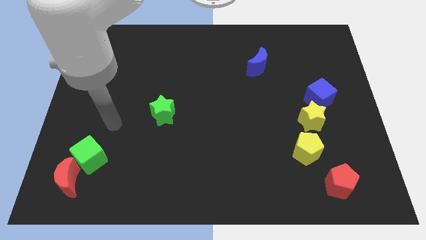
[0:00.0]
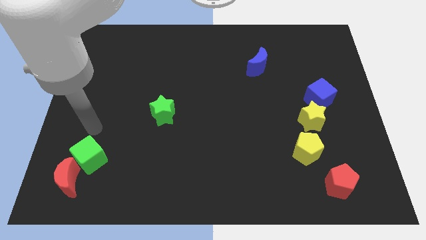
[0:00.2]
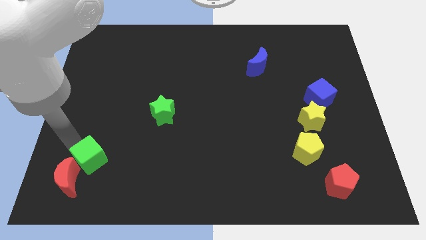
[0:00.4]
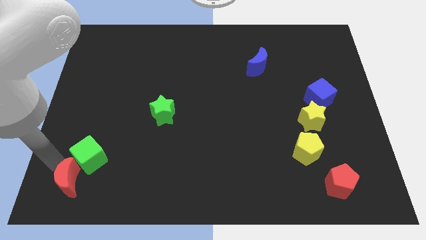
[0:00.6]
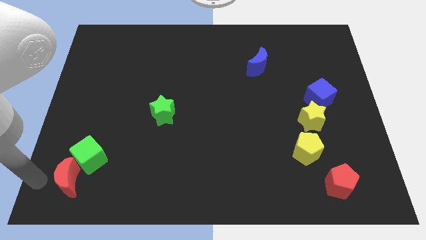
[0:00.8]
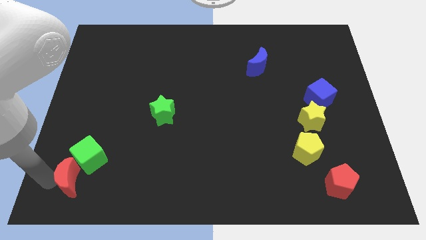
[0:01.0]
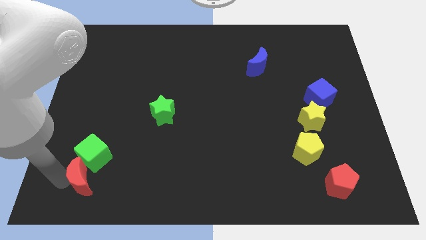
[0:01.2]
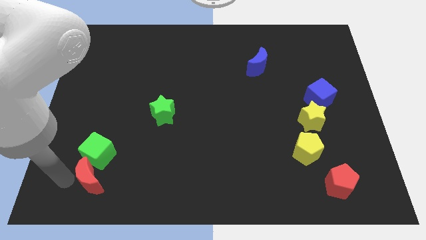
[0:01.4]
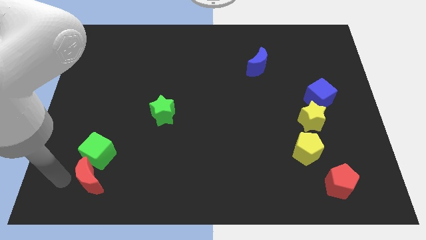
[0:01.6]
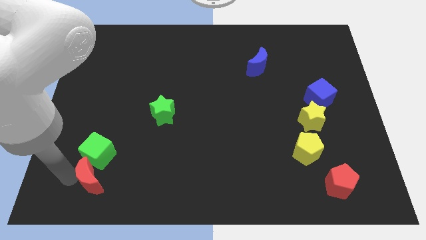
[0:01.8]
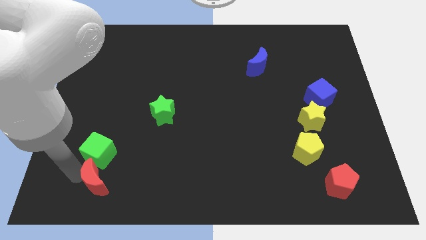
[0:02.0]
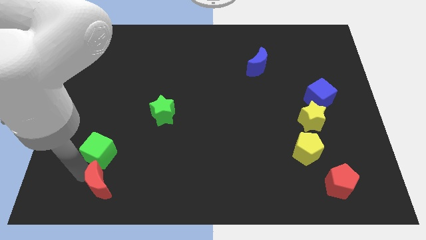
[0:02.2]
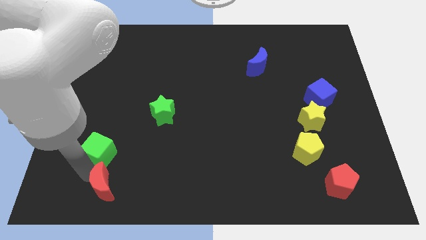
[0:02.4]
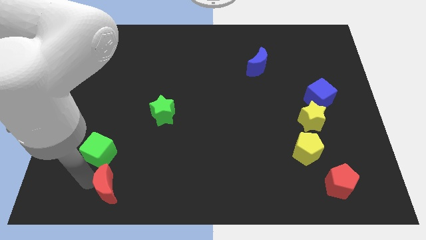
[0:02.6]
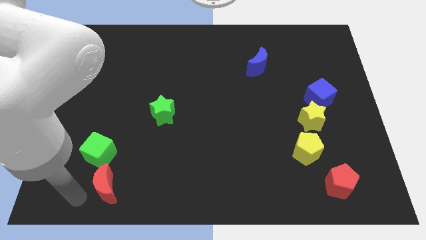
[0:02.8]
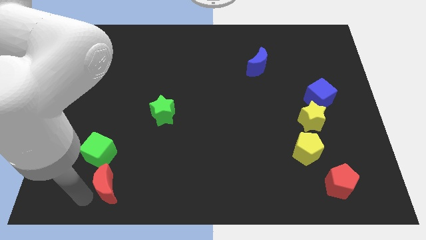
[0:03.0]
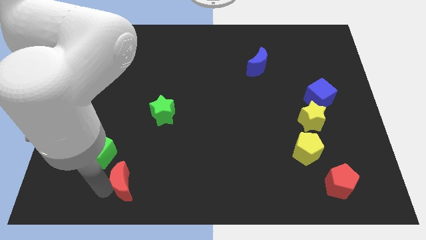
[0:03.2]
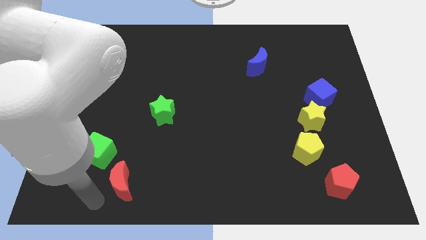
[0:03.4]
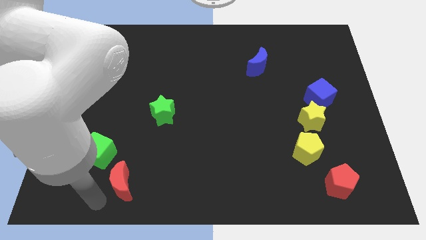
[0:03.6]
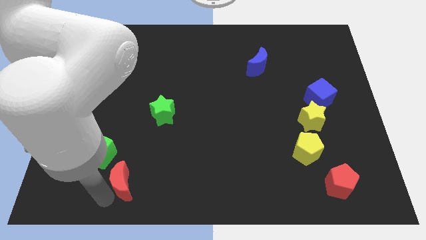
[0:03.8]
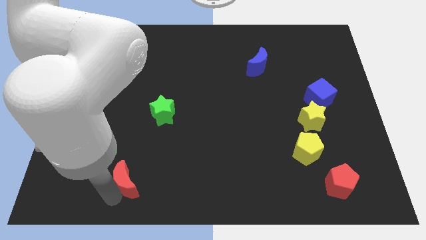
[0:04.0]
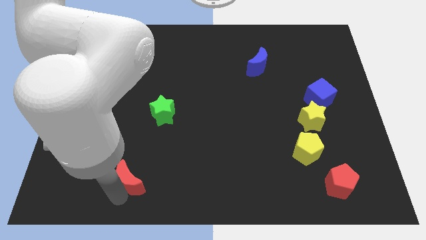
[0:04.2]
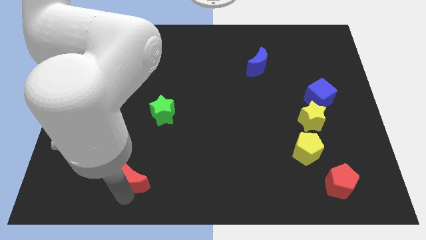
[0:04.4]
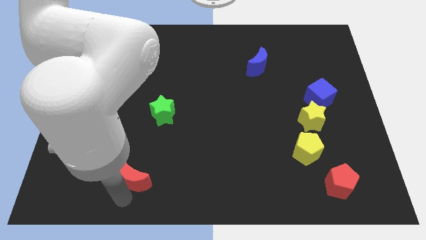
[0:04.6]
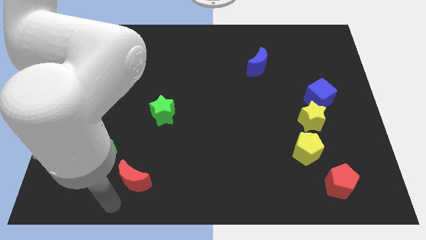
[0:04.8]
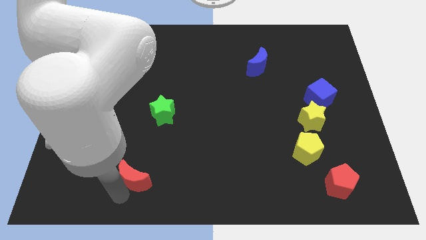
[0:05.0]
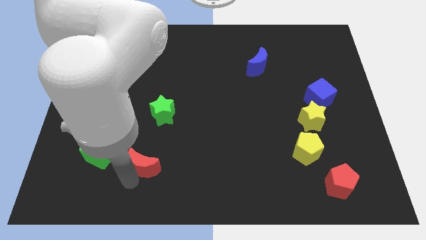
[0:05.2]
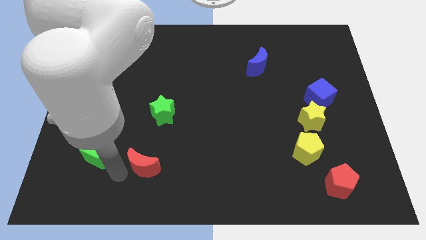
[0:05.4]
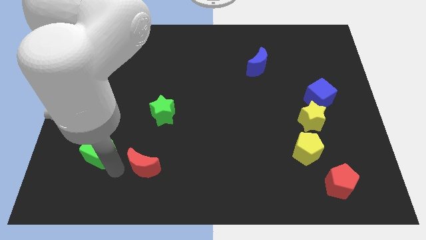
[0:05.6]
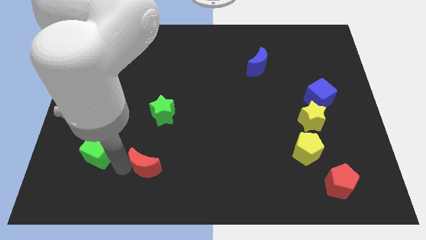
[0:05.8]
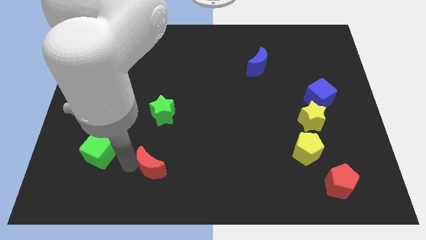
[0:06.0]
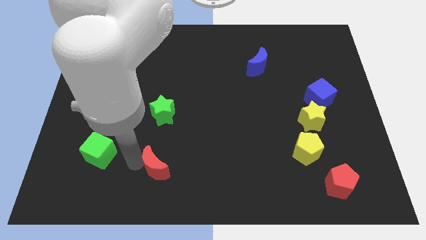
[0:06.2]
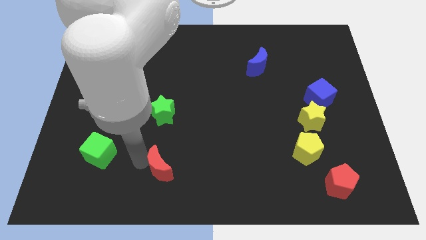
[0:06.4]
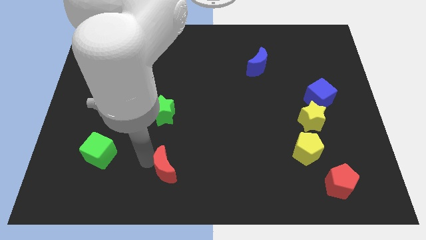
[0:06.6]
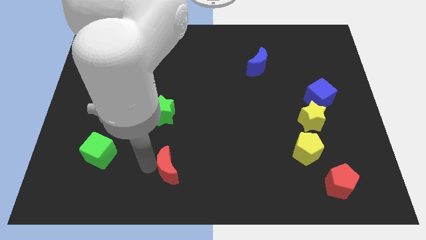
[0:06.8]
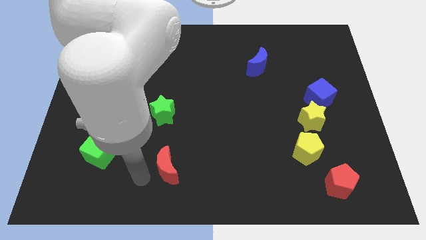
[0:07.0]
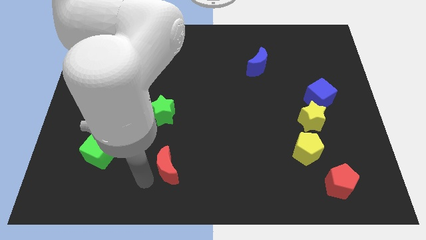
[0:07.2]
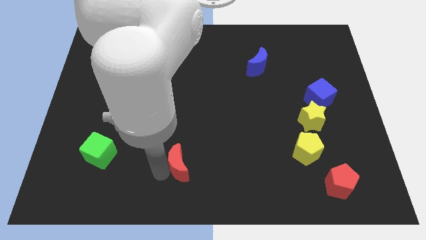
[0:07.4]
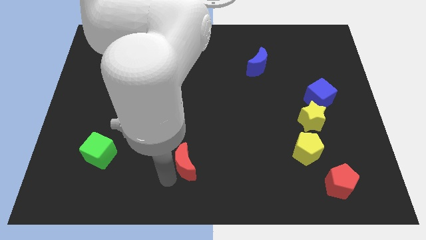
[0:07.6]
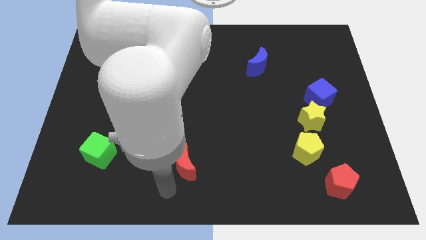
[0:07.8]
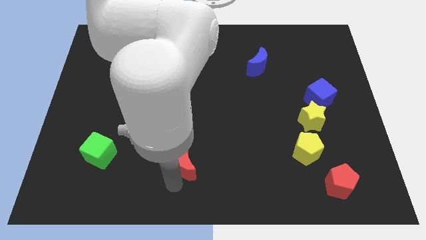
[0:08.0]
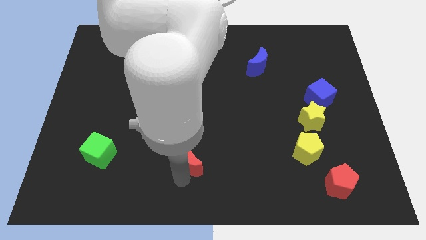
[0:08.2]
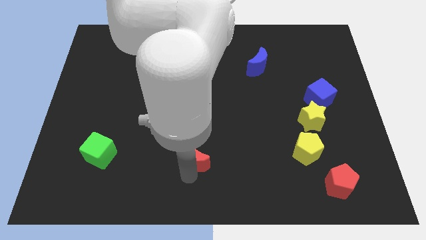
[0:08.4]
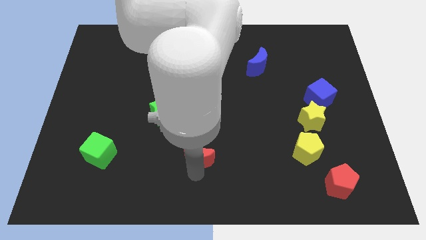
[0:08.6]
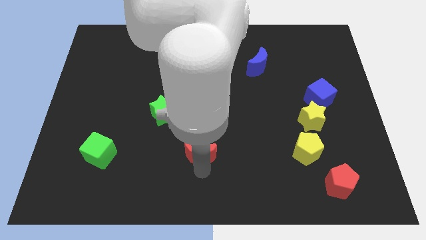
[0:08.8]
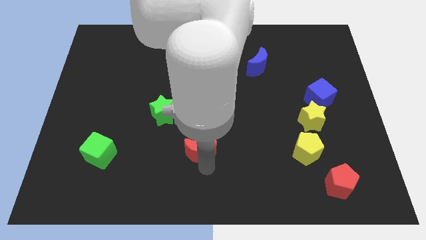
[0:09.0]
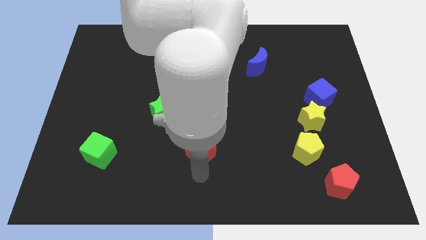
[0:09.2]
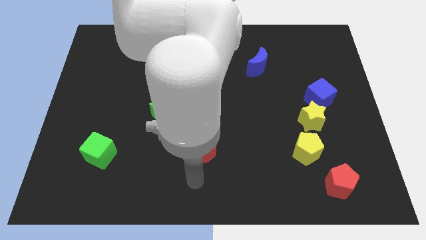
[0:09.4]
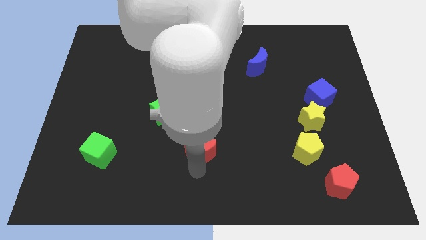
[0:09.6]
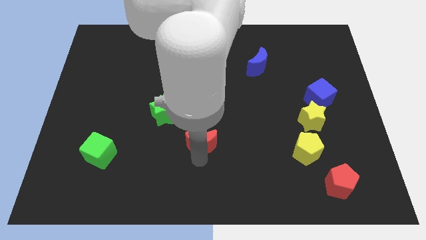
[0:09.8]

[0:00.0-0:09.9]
push the red moon to the middle

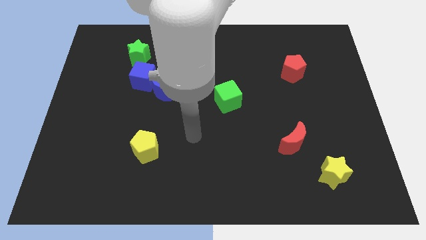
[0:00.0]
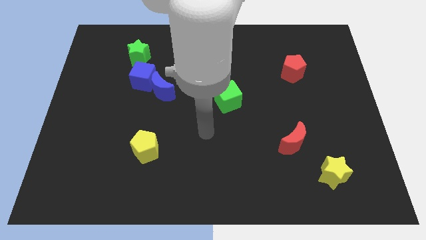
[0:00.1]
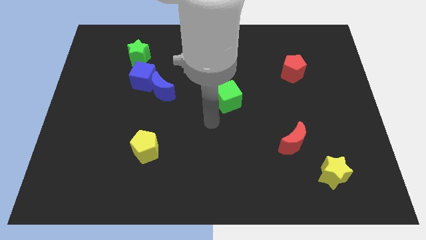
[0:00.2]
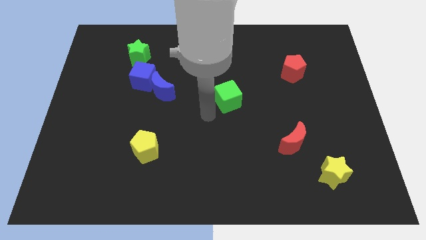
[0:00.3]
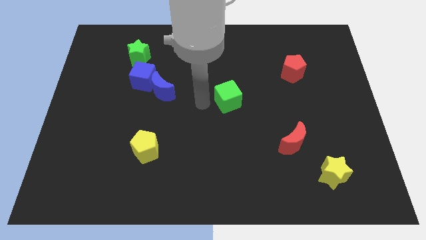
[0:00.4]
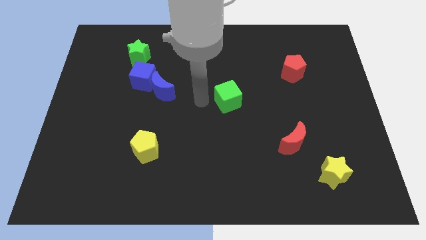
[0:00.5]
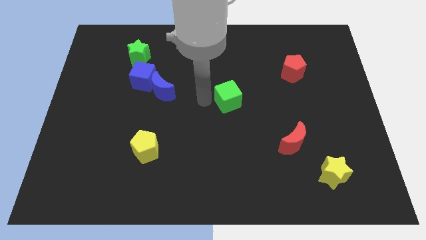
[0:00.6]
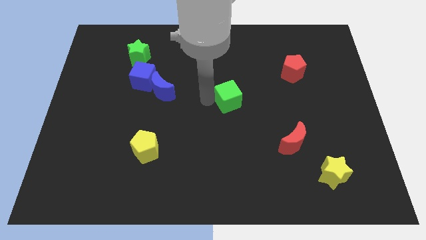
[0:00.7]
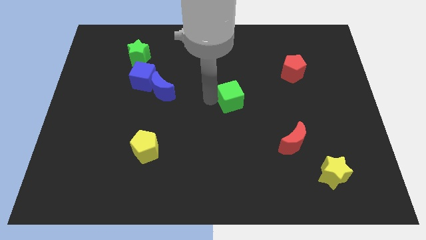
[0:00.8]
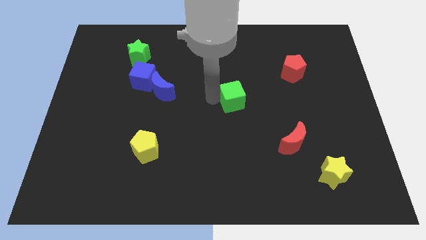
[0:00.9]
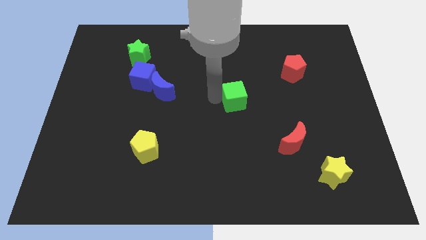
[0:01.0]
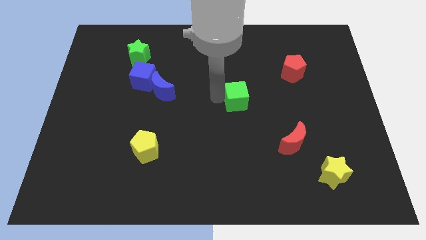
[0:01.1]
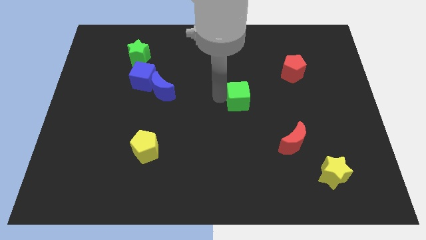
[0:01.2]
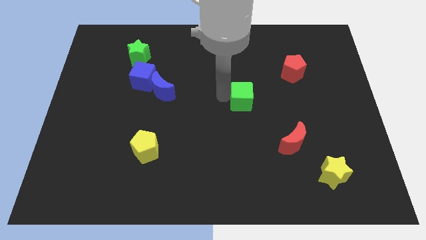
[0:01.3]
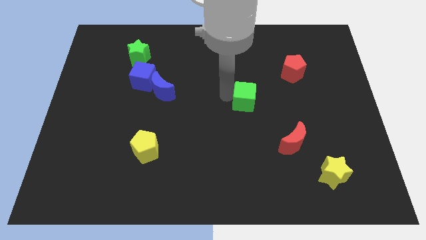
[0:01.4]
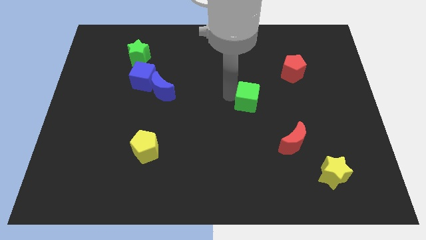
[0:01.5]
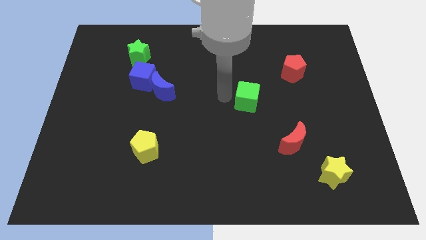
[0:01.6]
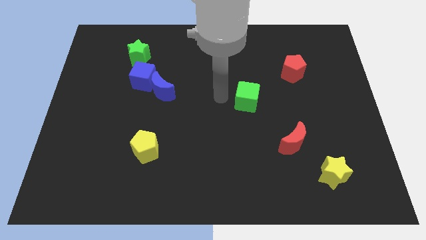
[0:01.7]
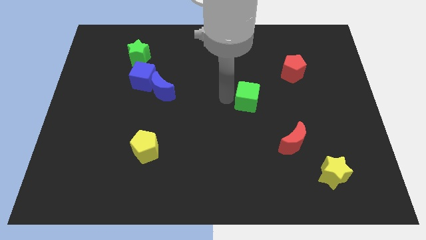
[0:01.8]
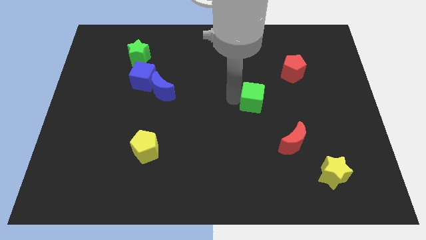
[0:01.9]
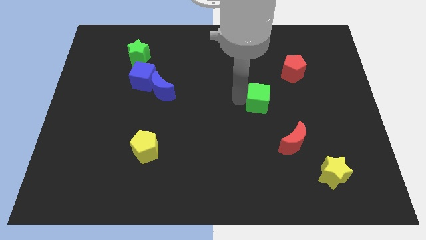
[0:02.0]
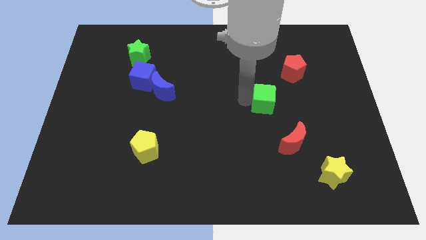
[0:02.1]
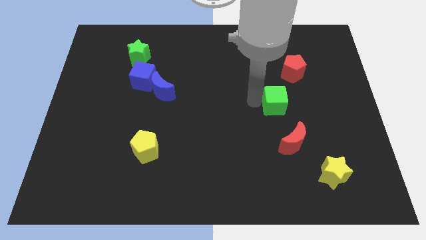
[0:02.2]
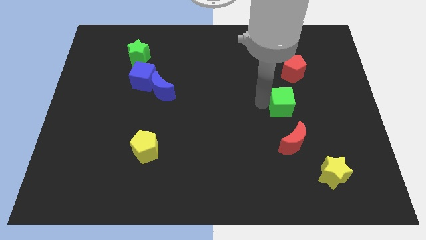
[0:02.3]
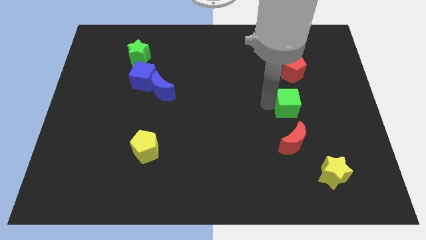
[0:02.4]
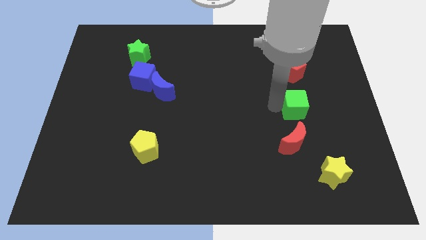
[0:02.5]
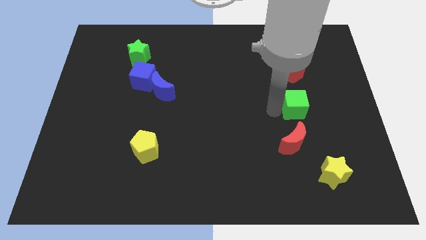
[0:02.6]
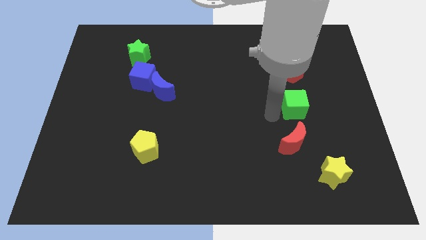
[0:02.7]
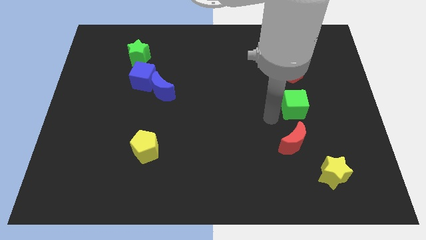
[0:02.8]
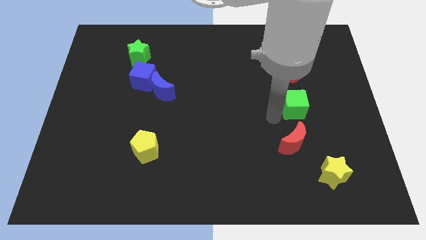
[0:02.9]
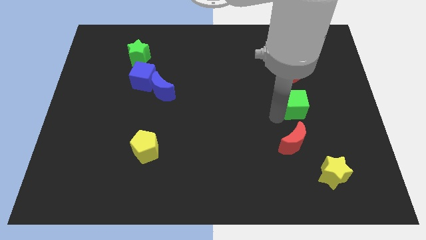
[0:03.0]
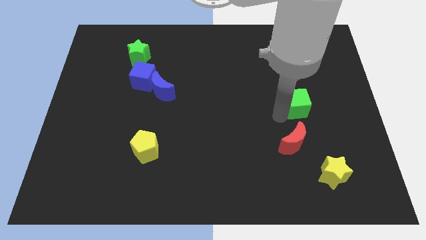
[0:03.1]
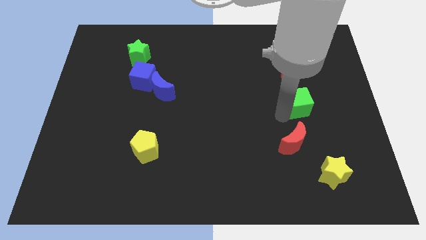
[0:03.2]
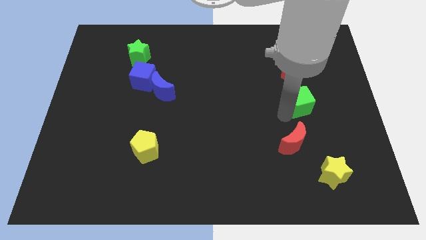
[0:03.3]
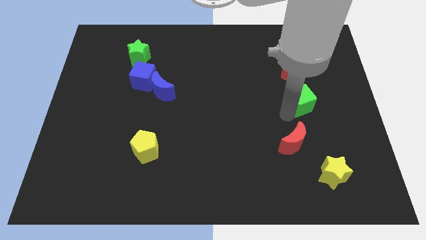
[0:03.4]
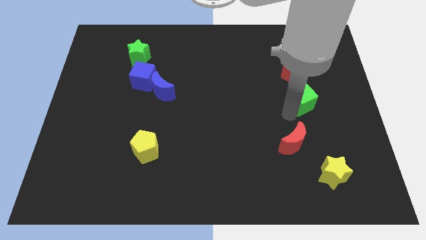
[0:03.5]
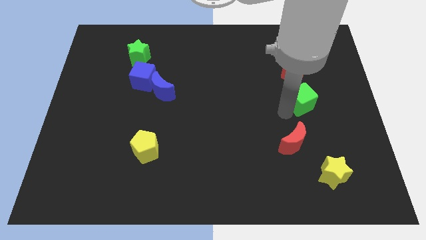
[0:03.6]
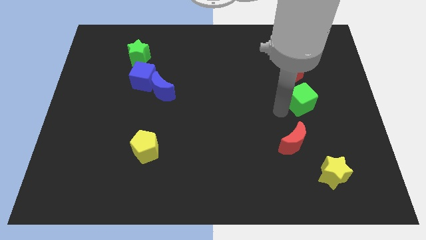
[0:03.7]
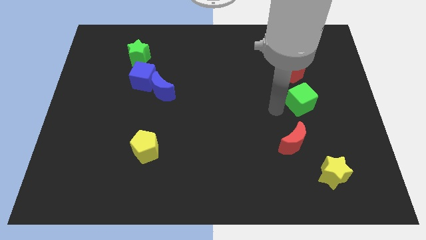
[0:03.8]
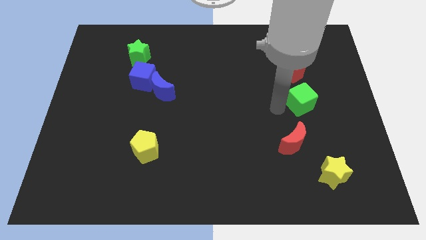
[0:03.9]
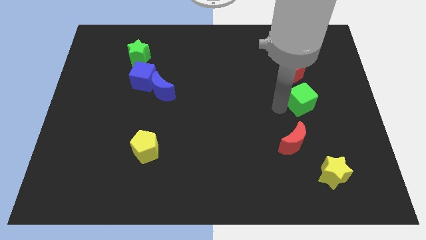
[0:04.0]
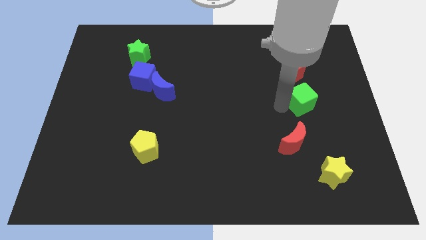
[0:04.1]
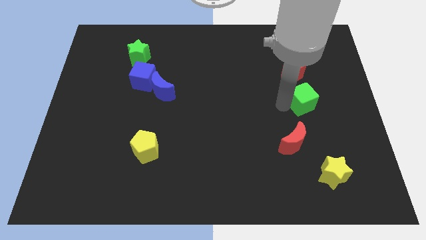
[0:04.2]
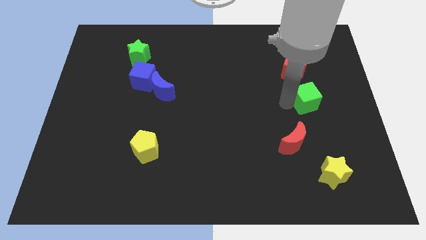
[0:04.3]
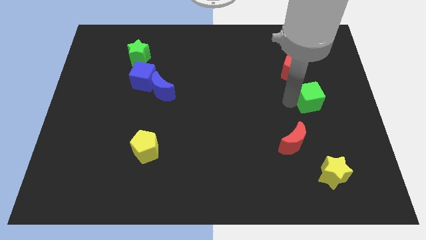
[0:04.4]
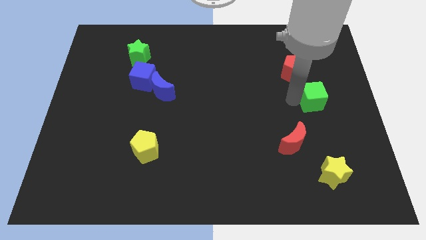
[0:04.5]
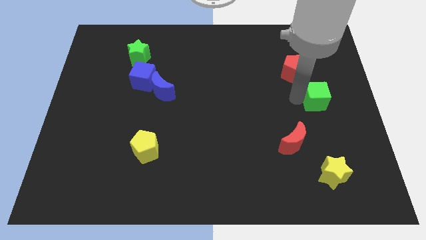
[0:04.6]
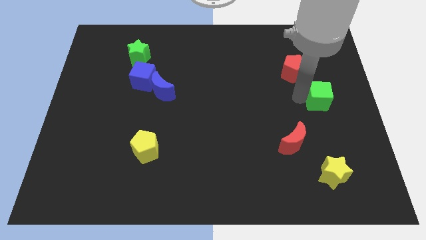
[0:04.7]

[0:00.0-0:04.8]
slide the green cube to the center right
